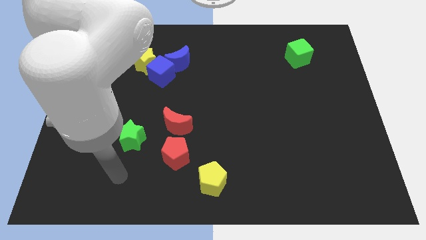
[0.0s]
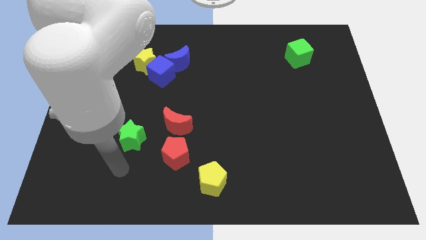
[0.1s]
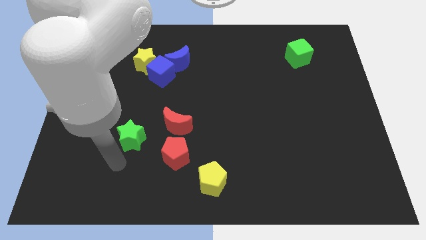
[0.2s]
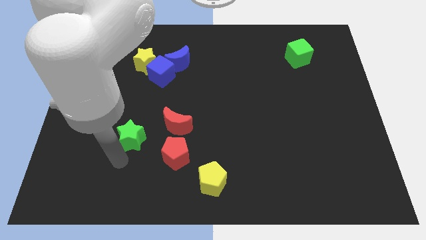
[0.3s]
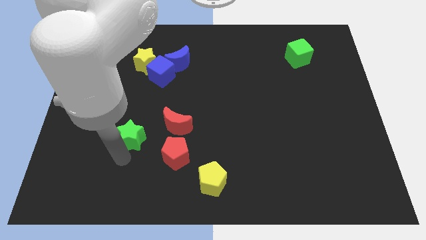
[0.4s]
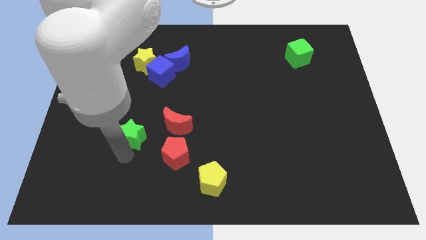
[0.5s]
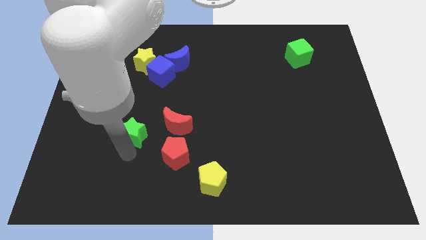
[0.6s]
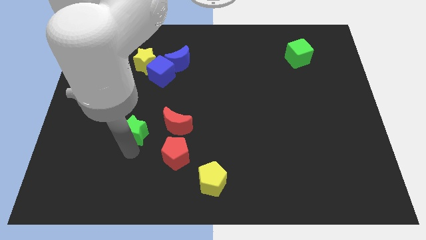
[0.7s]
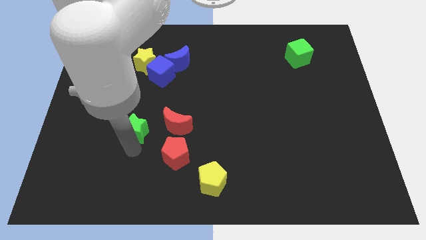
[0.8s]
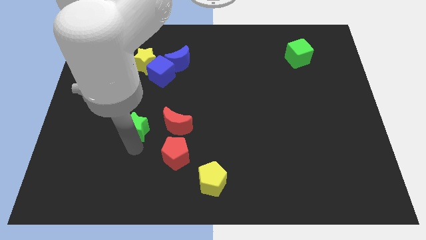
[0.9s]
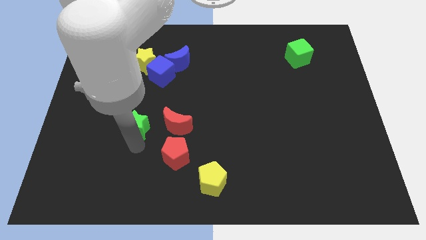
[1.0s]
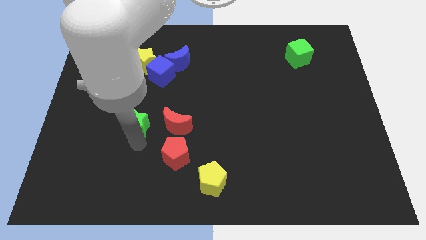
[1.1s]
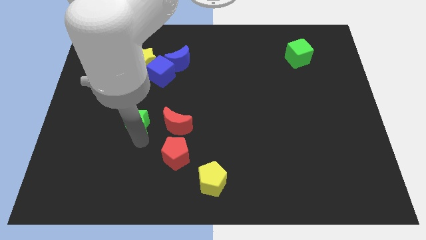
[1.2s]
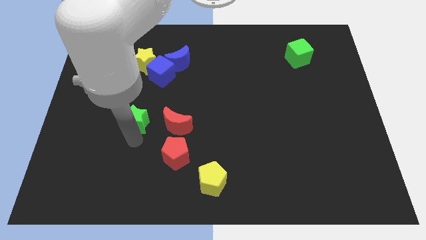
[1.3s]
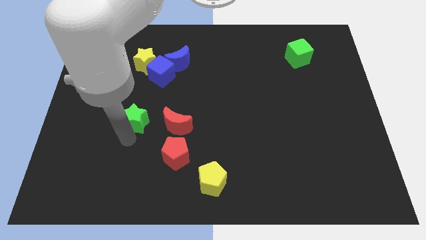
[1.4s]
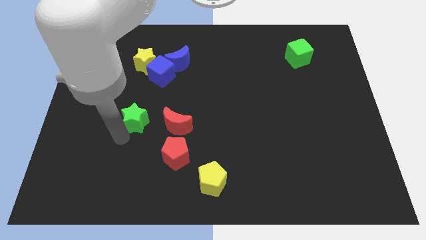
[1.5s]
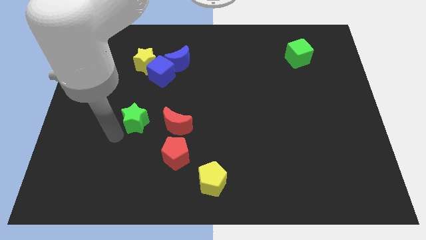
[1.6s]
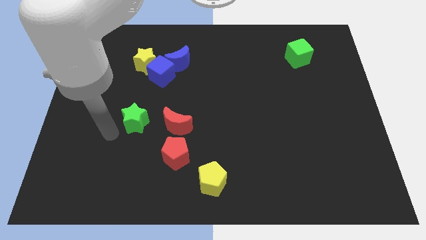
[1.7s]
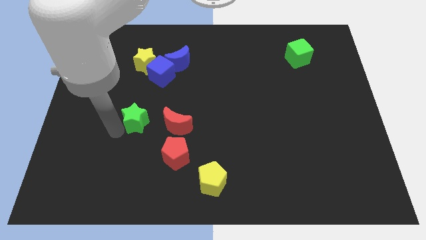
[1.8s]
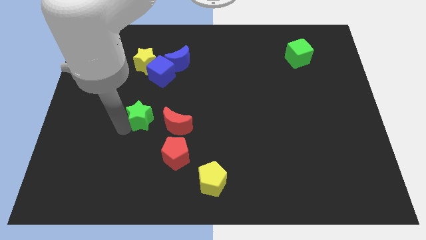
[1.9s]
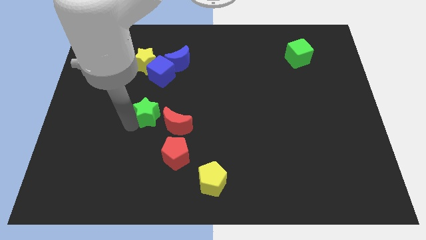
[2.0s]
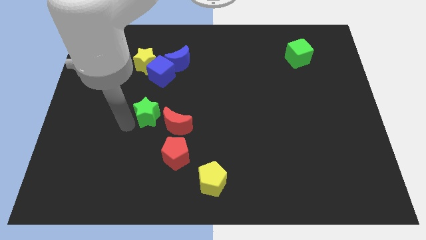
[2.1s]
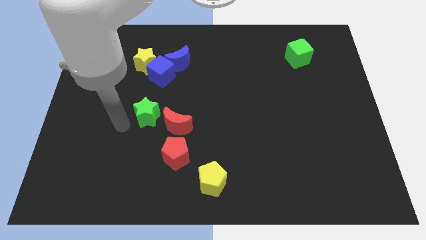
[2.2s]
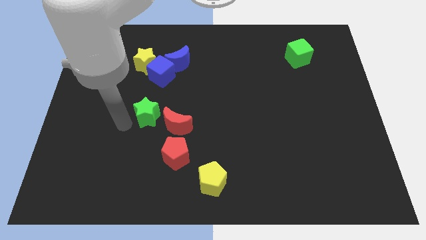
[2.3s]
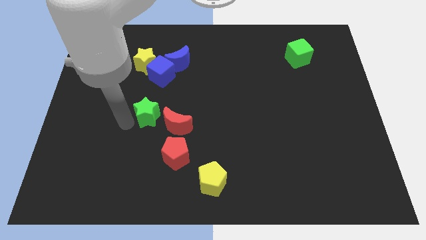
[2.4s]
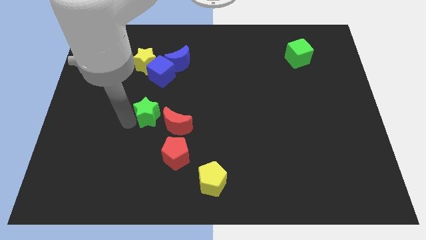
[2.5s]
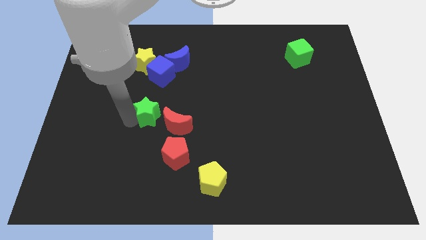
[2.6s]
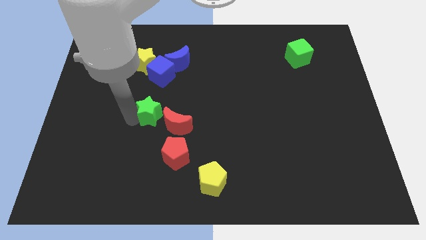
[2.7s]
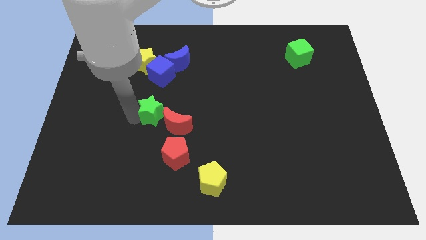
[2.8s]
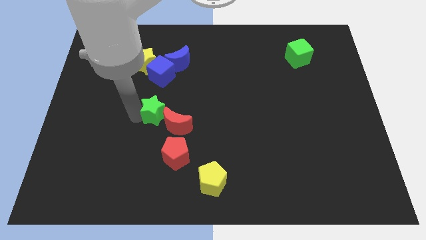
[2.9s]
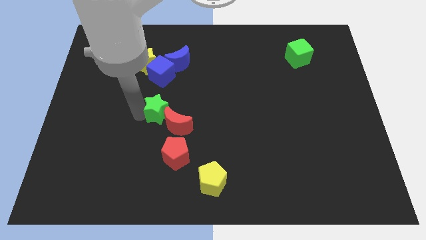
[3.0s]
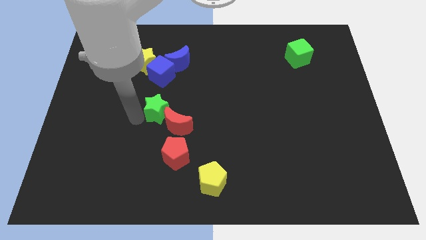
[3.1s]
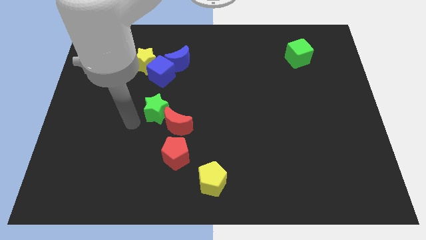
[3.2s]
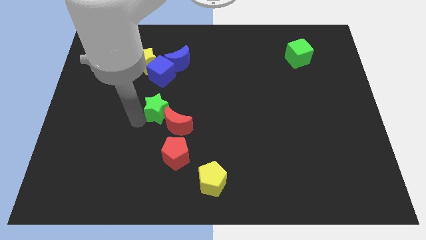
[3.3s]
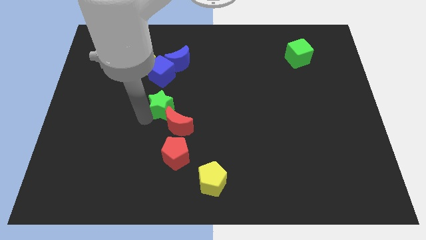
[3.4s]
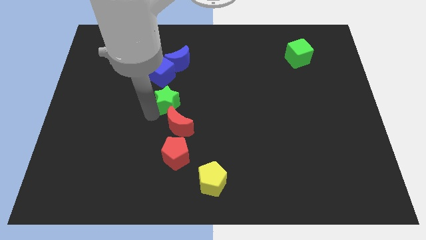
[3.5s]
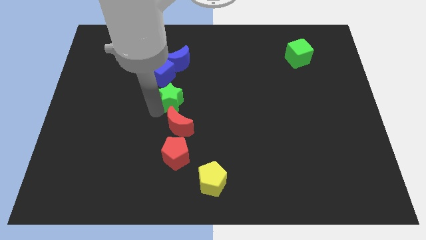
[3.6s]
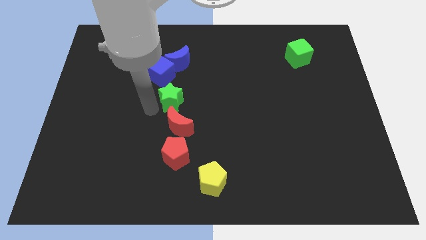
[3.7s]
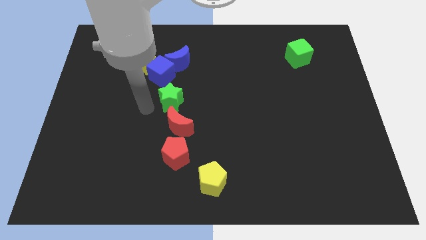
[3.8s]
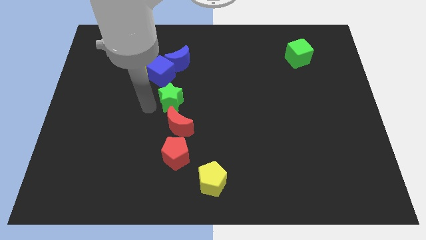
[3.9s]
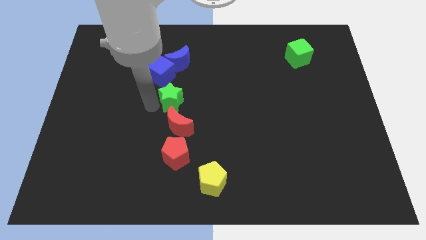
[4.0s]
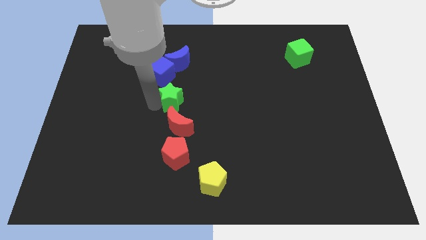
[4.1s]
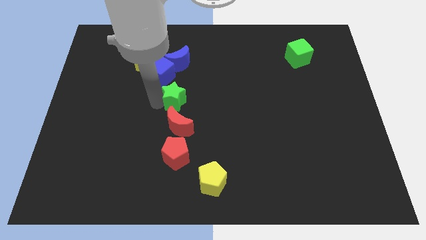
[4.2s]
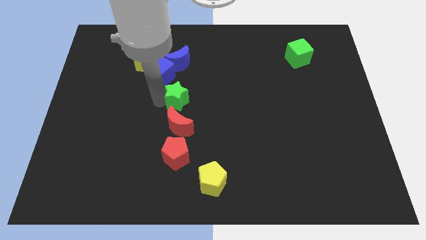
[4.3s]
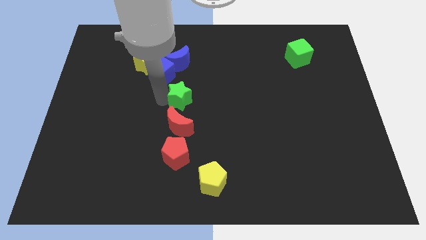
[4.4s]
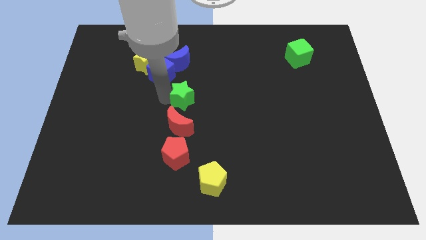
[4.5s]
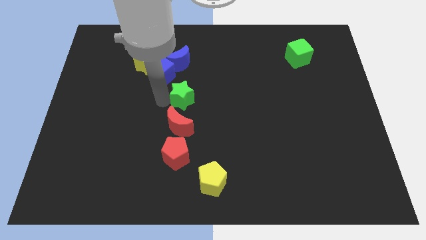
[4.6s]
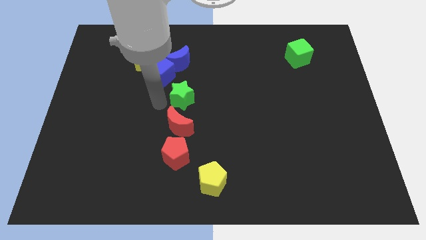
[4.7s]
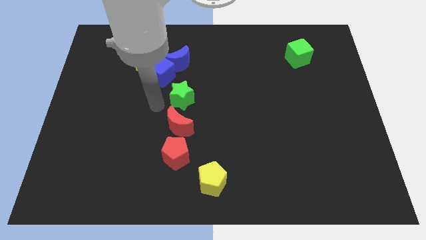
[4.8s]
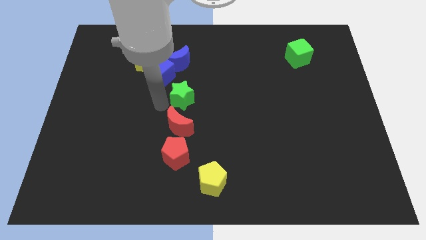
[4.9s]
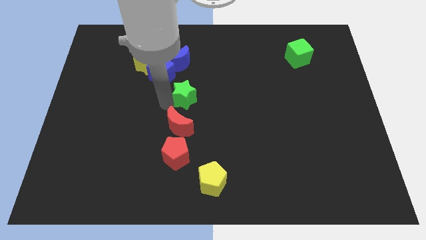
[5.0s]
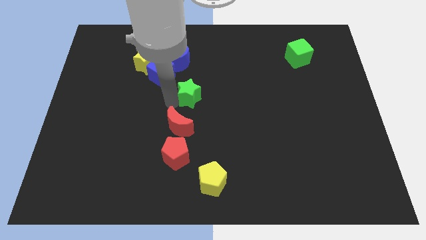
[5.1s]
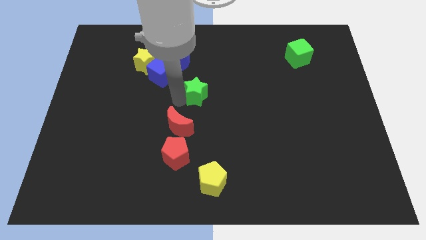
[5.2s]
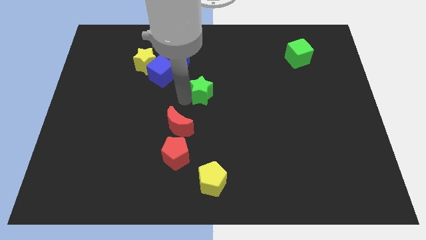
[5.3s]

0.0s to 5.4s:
slide the green star up and to the right diagonally

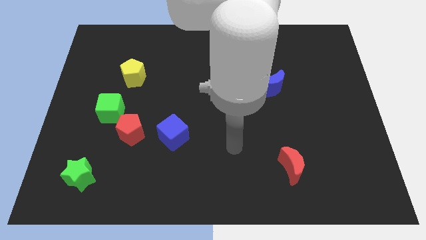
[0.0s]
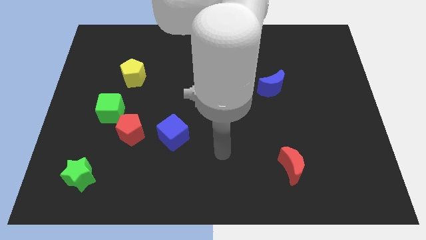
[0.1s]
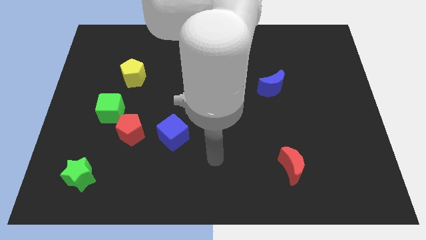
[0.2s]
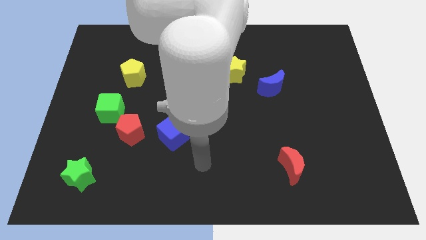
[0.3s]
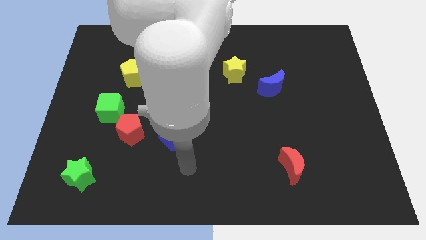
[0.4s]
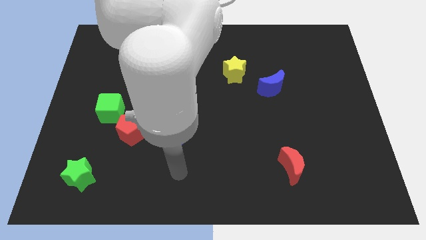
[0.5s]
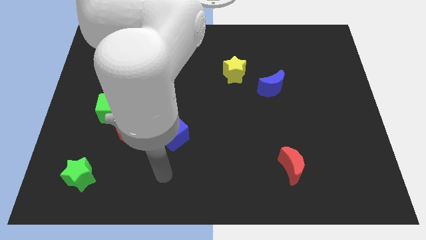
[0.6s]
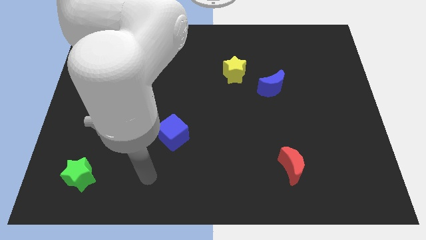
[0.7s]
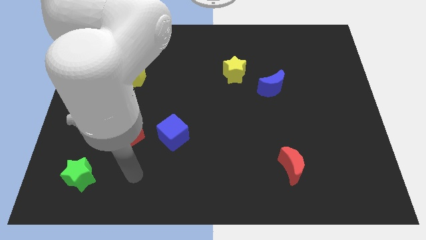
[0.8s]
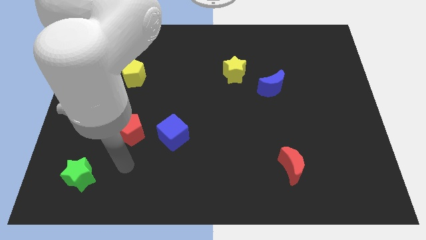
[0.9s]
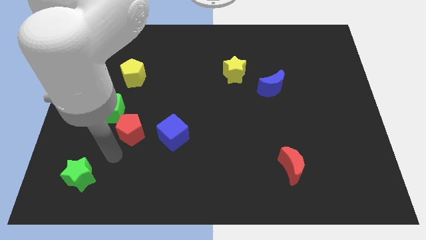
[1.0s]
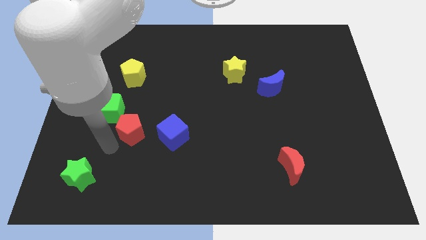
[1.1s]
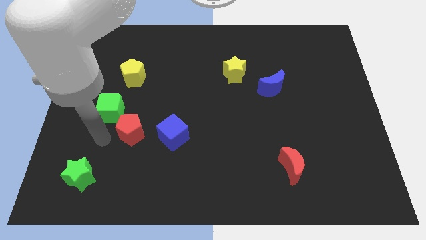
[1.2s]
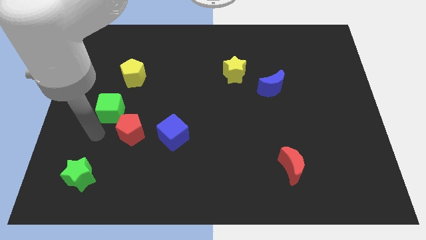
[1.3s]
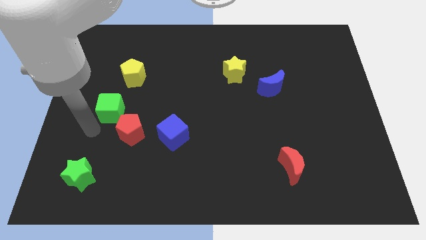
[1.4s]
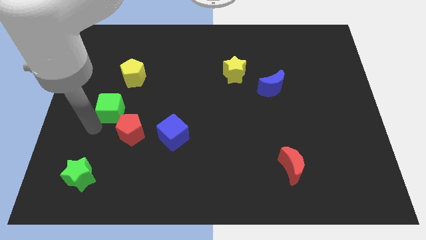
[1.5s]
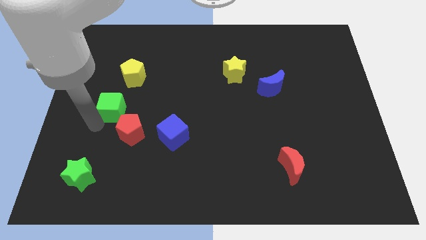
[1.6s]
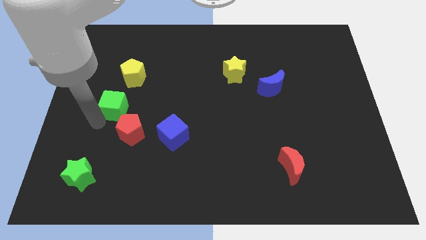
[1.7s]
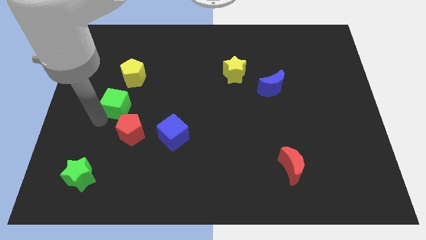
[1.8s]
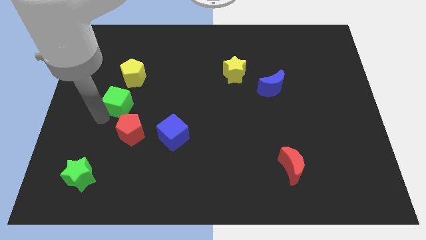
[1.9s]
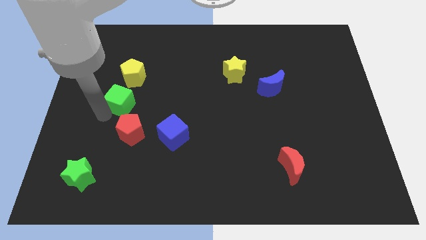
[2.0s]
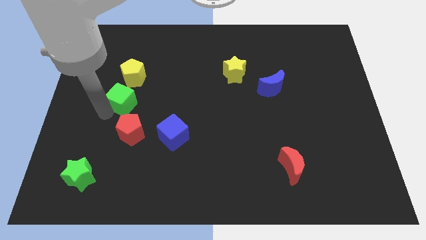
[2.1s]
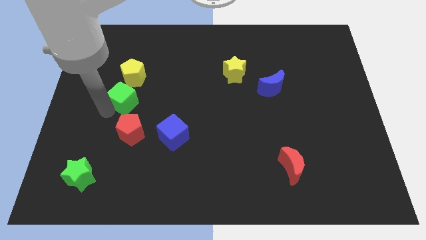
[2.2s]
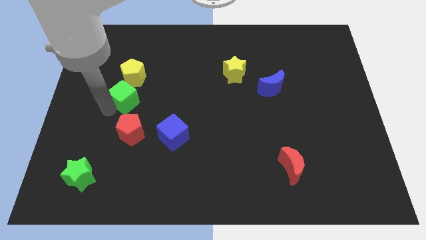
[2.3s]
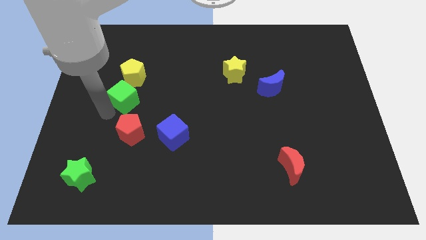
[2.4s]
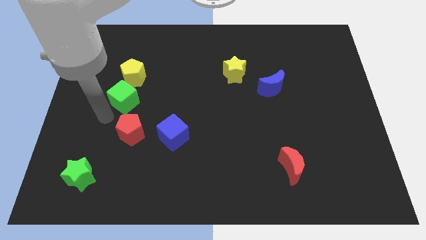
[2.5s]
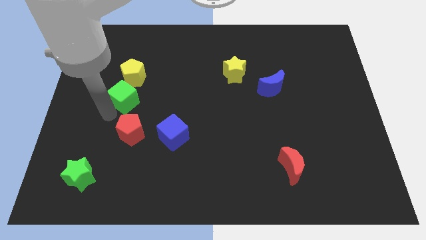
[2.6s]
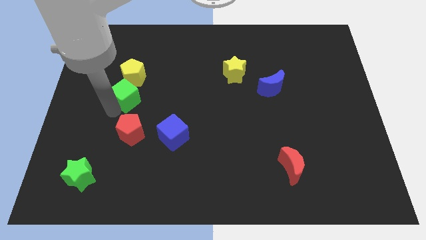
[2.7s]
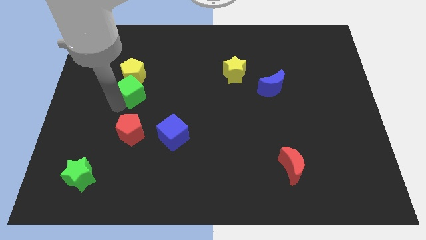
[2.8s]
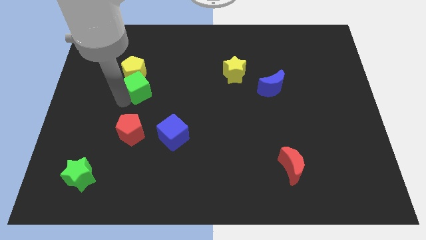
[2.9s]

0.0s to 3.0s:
slightly move the green cube up and to the right diagonally
